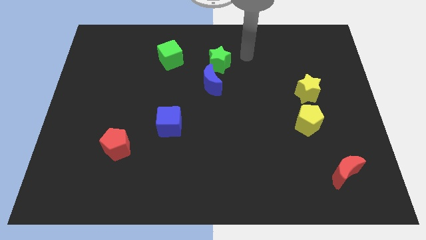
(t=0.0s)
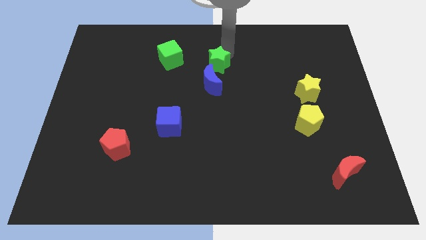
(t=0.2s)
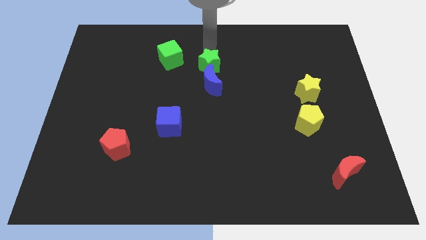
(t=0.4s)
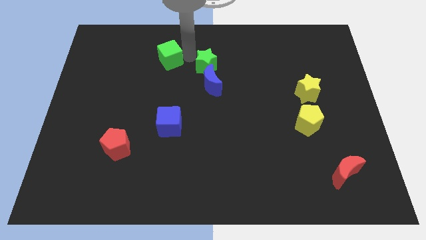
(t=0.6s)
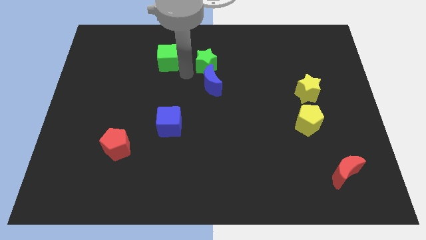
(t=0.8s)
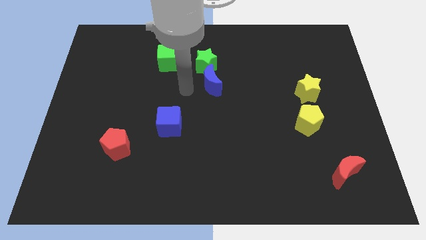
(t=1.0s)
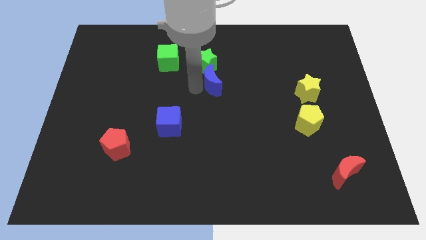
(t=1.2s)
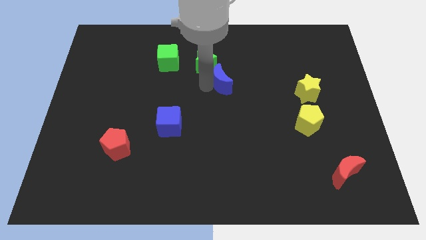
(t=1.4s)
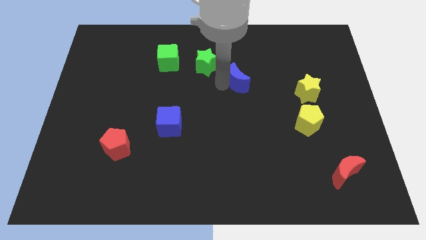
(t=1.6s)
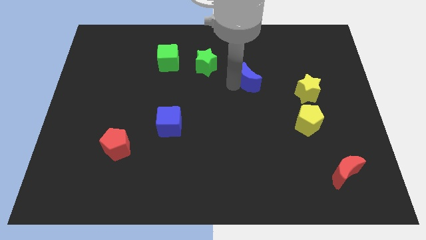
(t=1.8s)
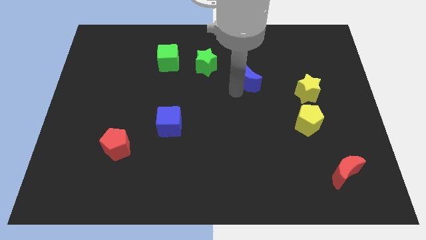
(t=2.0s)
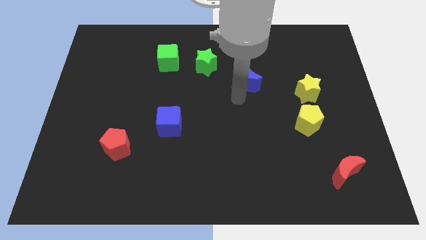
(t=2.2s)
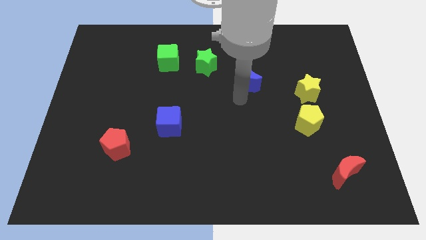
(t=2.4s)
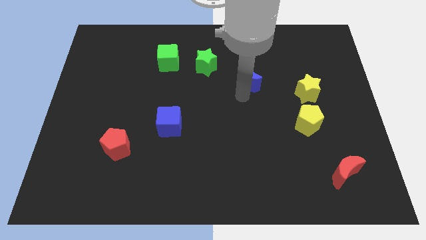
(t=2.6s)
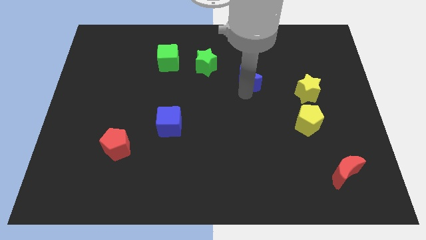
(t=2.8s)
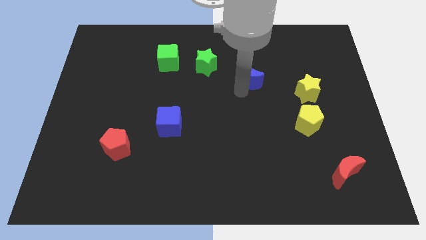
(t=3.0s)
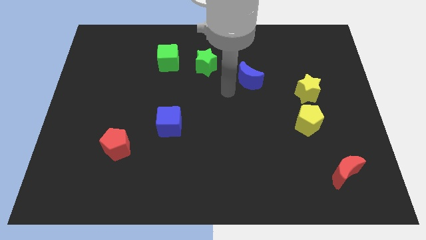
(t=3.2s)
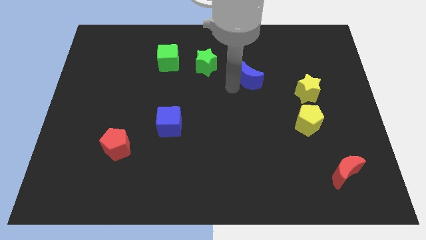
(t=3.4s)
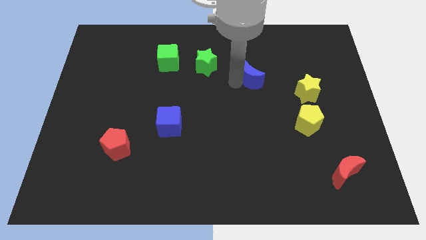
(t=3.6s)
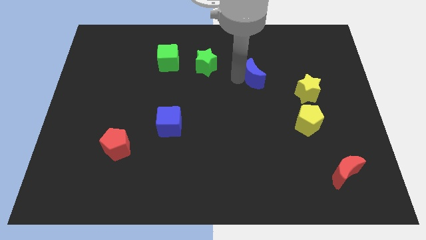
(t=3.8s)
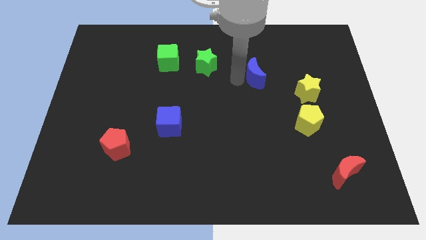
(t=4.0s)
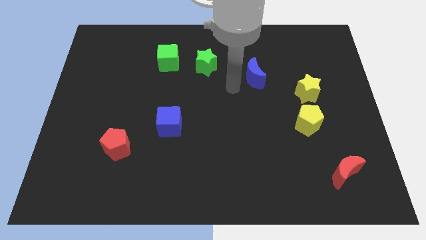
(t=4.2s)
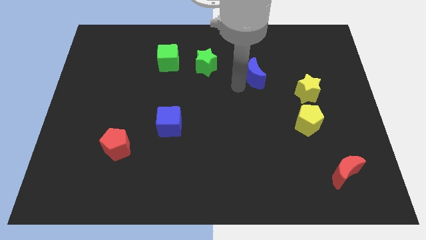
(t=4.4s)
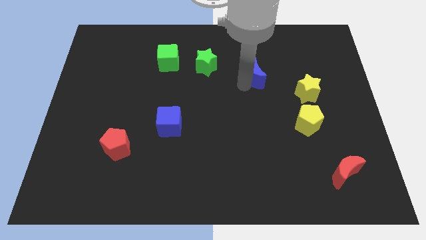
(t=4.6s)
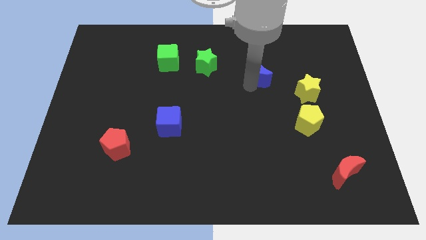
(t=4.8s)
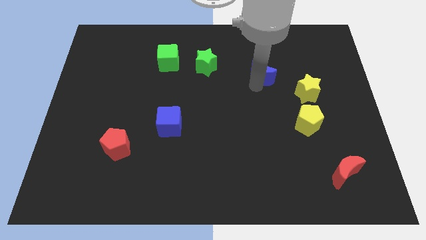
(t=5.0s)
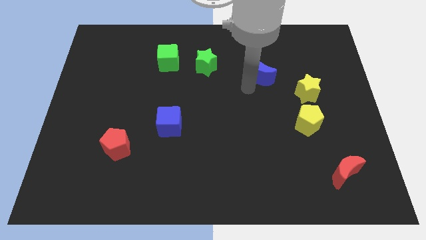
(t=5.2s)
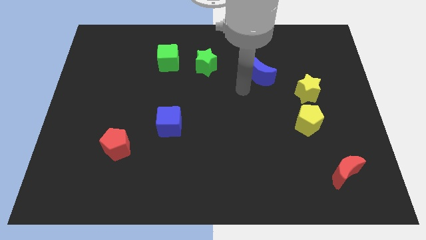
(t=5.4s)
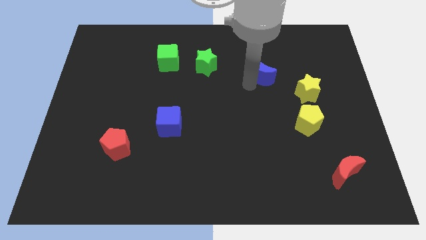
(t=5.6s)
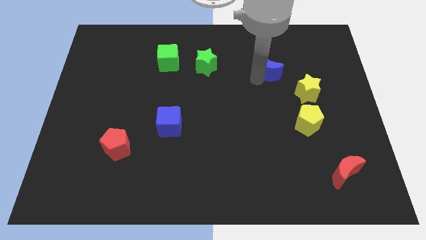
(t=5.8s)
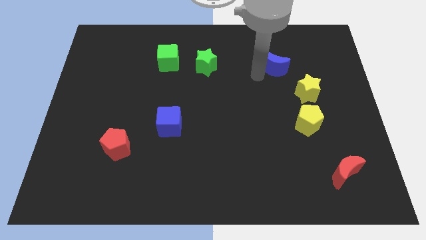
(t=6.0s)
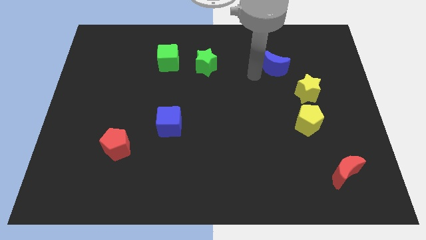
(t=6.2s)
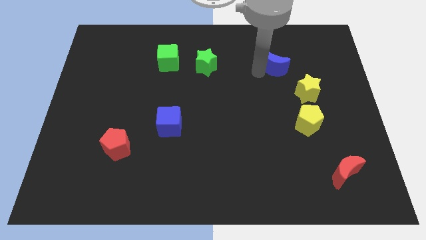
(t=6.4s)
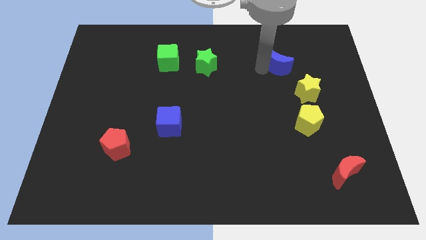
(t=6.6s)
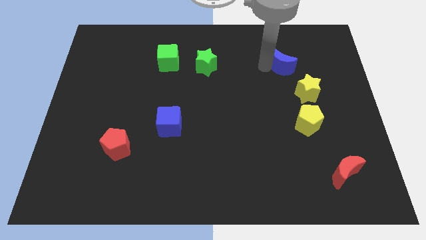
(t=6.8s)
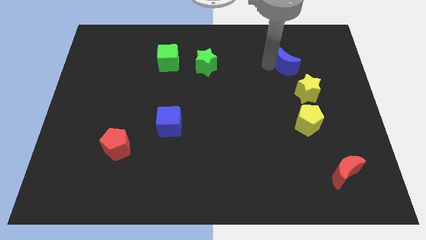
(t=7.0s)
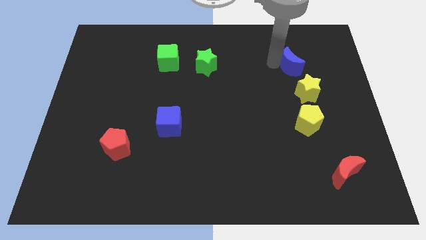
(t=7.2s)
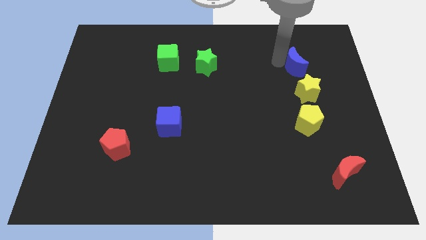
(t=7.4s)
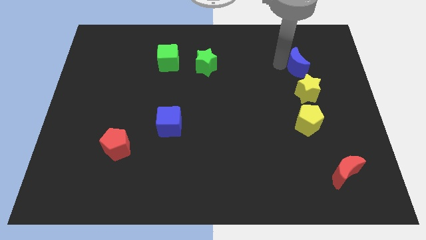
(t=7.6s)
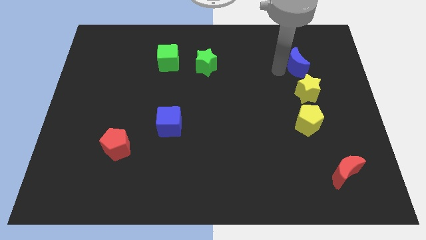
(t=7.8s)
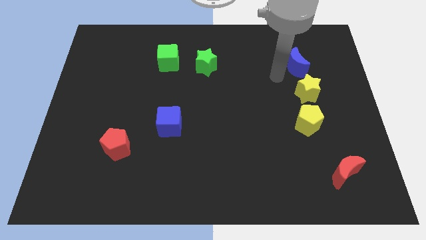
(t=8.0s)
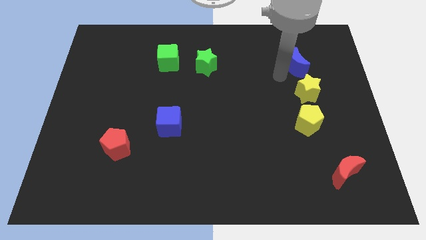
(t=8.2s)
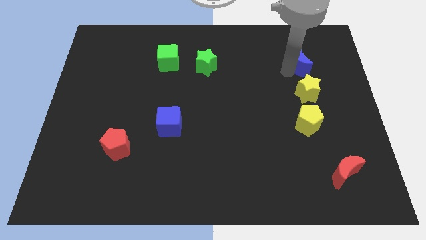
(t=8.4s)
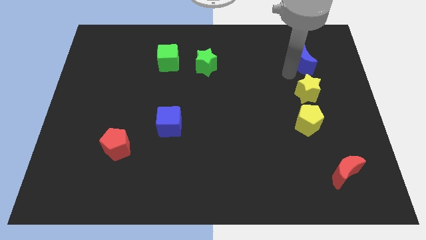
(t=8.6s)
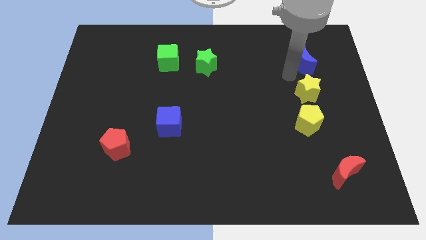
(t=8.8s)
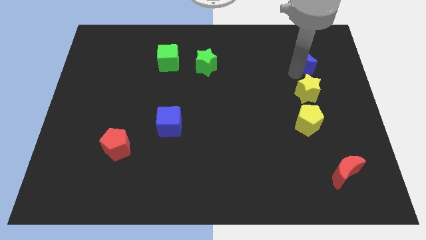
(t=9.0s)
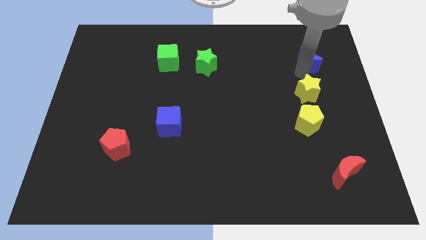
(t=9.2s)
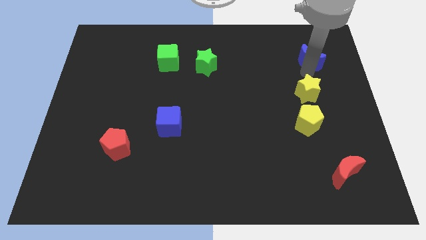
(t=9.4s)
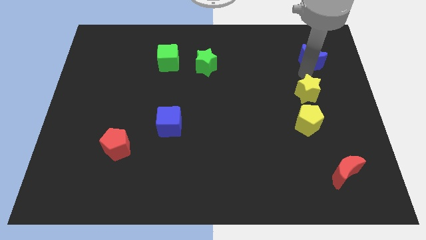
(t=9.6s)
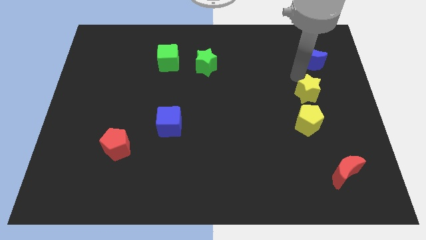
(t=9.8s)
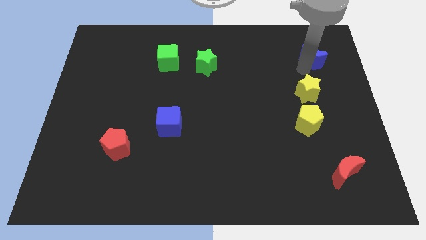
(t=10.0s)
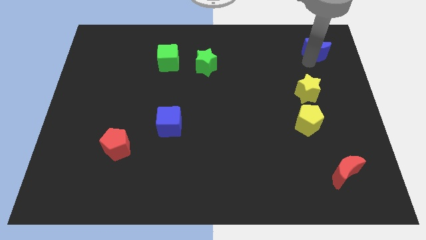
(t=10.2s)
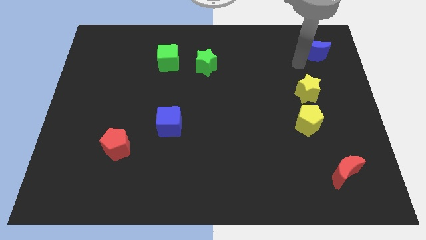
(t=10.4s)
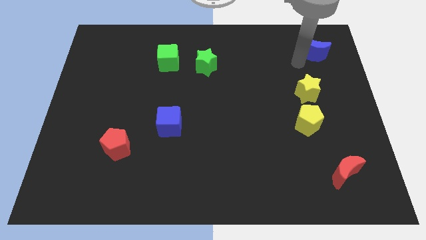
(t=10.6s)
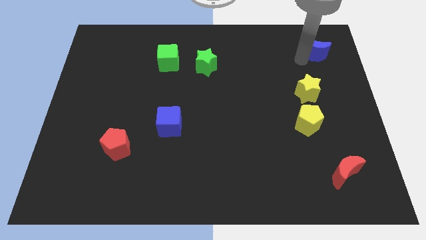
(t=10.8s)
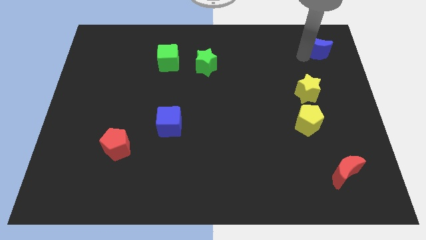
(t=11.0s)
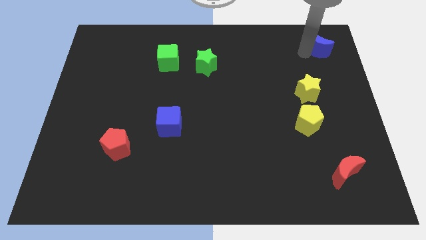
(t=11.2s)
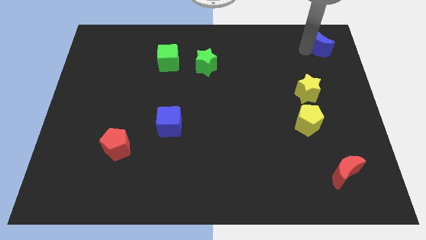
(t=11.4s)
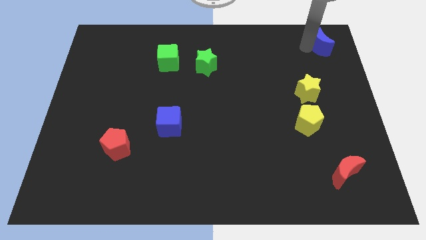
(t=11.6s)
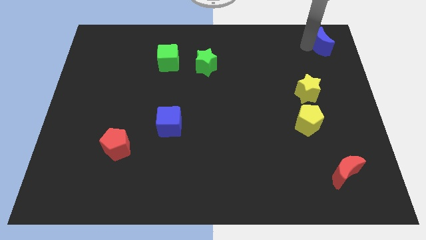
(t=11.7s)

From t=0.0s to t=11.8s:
push the blue moon to the upper right corner
